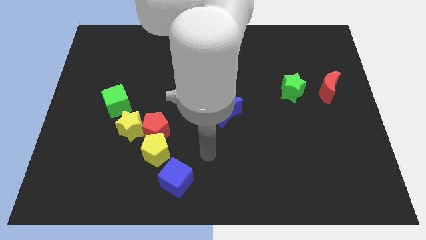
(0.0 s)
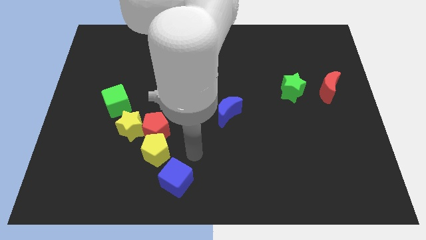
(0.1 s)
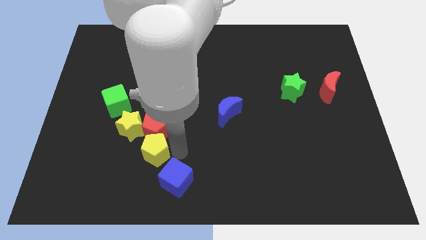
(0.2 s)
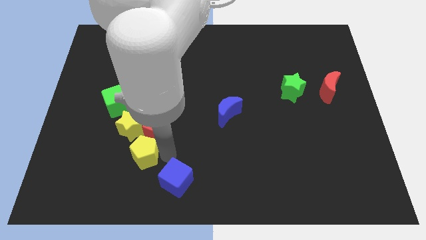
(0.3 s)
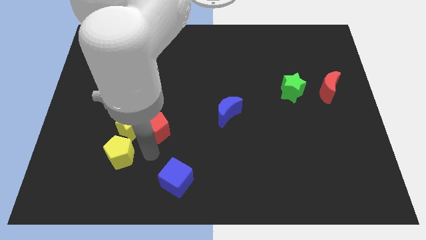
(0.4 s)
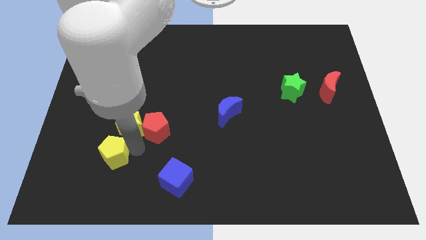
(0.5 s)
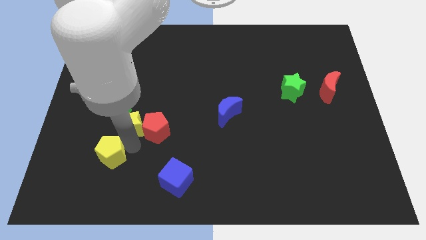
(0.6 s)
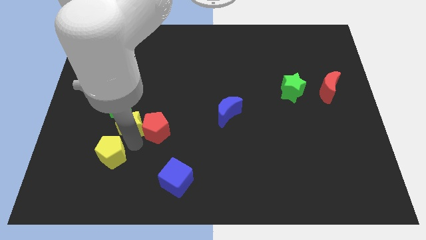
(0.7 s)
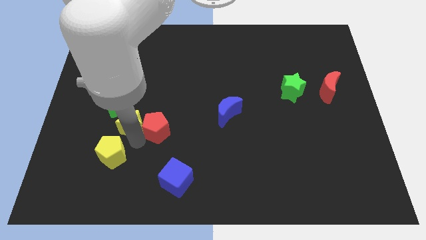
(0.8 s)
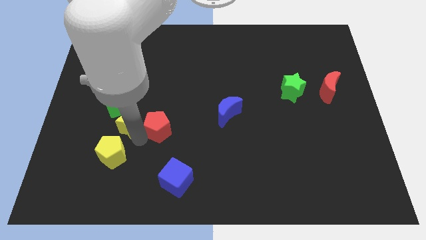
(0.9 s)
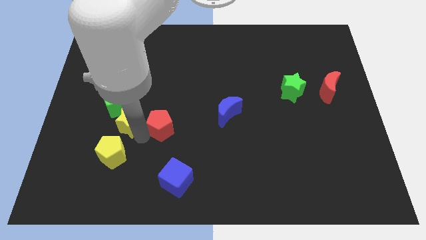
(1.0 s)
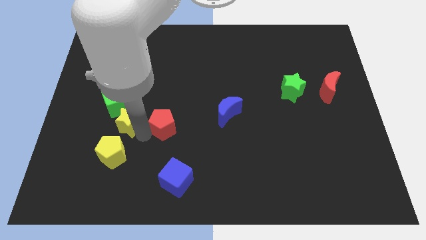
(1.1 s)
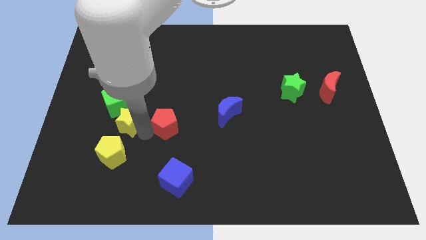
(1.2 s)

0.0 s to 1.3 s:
separate the red pentagon from the yellow pentagon and yellow star

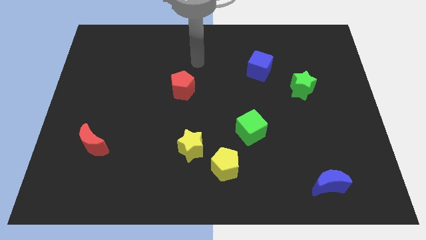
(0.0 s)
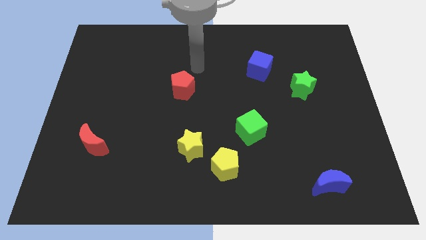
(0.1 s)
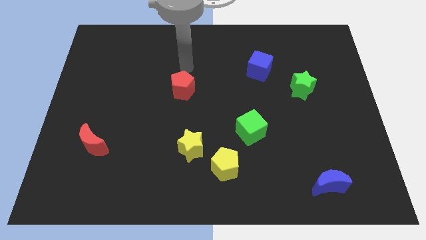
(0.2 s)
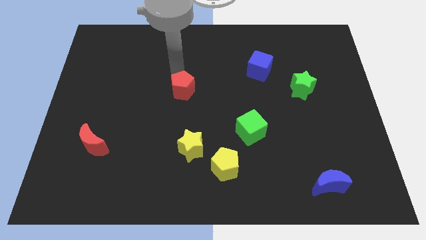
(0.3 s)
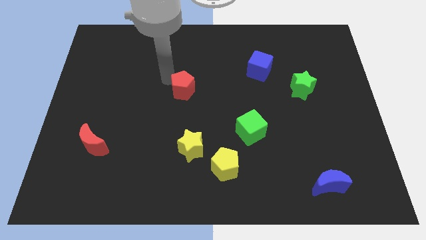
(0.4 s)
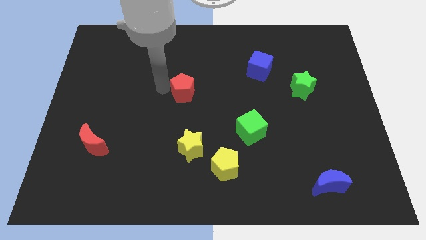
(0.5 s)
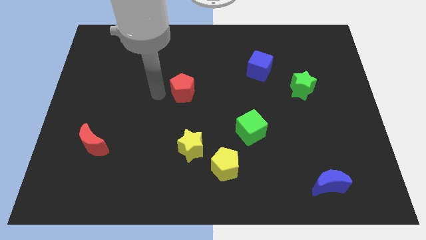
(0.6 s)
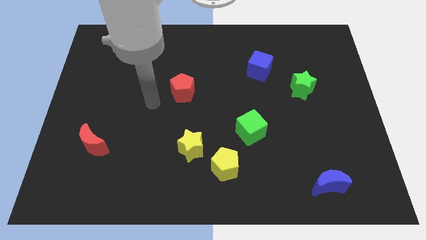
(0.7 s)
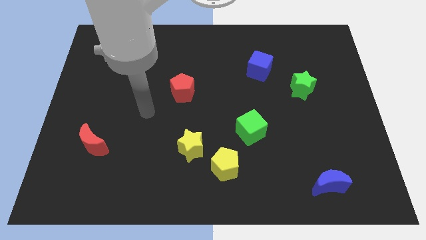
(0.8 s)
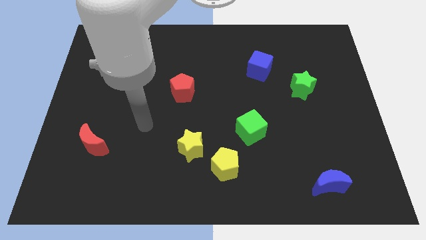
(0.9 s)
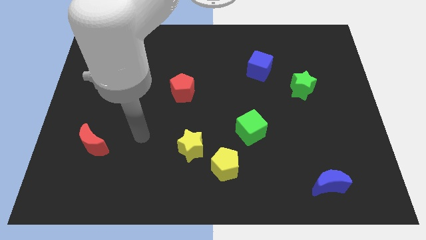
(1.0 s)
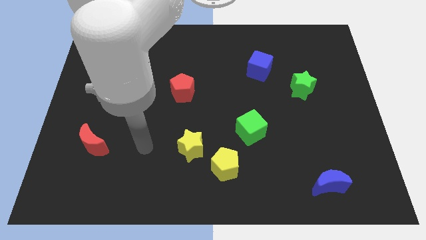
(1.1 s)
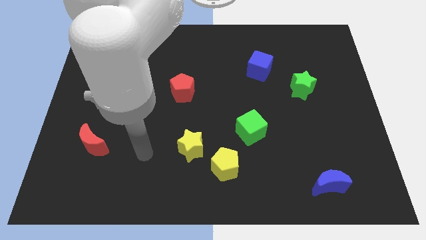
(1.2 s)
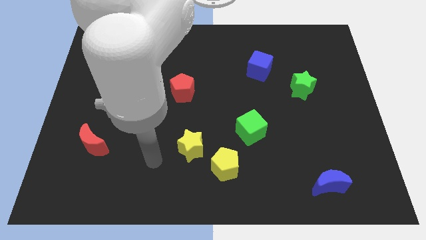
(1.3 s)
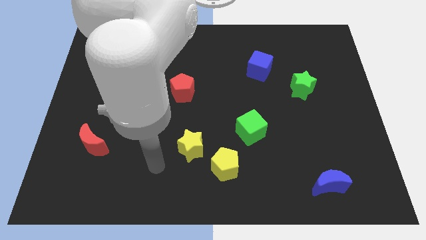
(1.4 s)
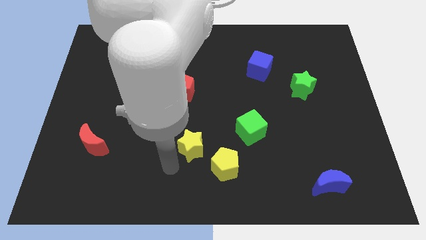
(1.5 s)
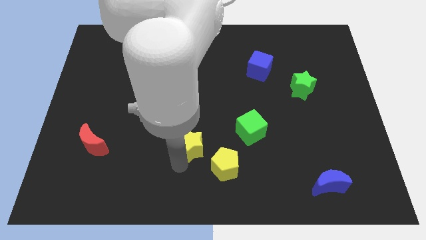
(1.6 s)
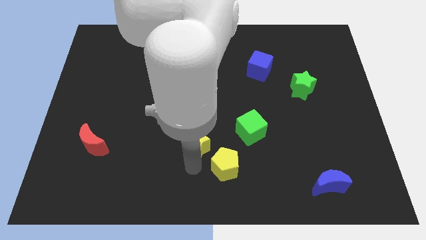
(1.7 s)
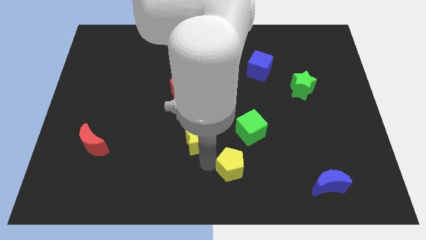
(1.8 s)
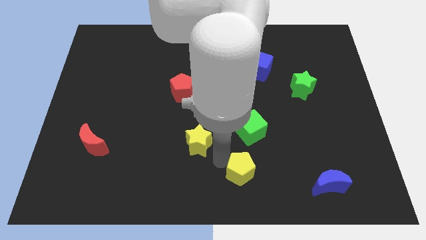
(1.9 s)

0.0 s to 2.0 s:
move the yellow star away from the yellow pentagon

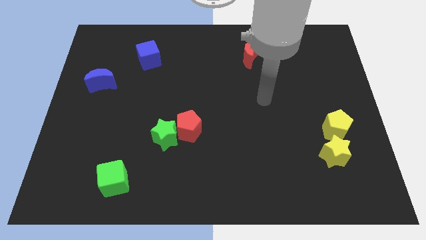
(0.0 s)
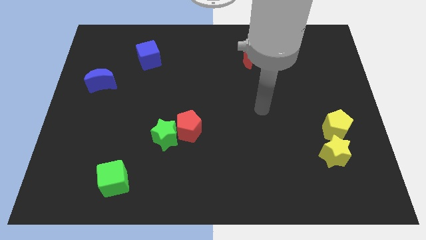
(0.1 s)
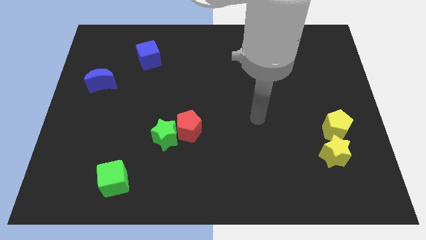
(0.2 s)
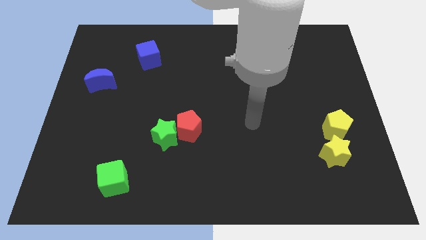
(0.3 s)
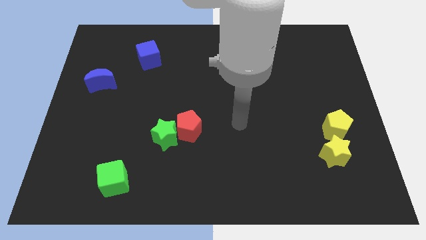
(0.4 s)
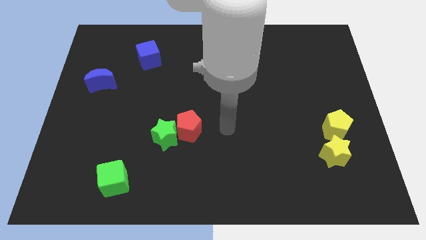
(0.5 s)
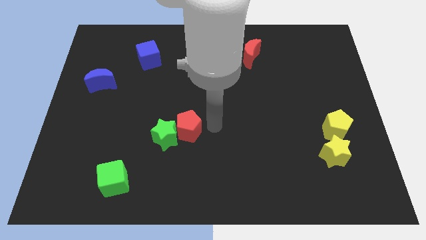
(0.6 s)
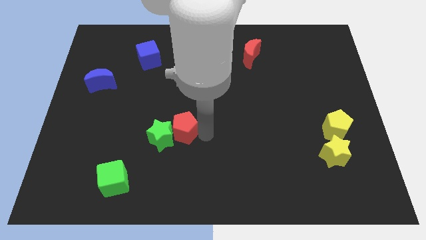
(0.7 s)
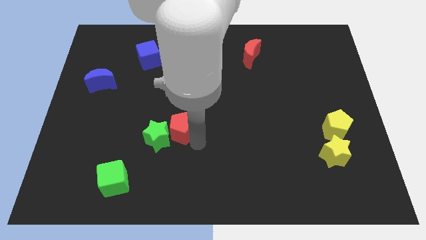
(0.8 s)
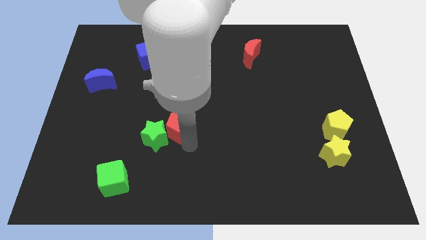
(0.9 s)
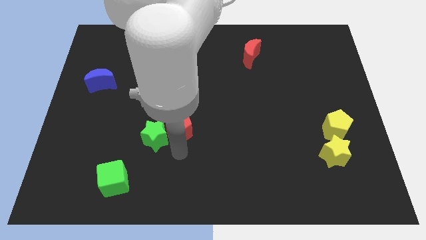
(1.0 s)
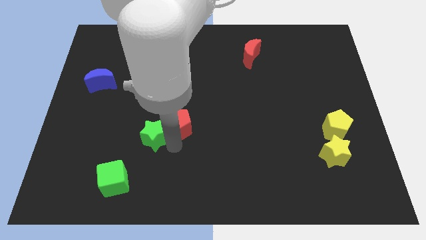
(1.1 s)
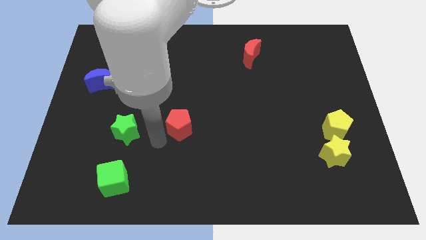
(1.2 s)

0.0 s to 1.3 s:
move the red pentagon away from the green star

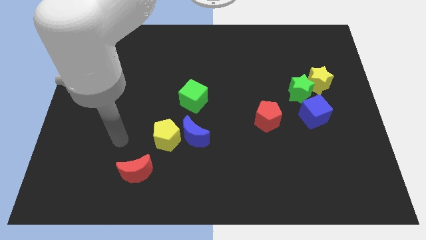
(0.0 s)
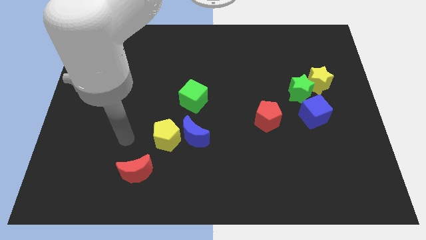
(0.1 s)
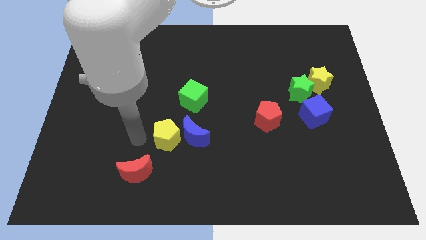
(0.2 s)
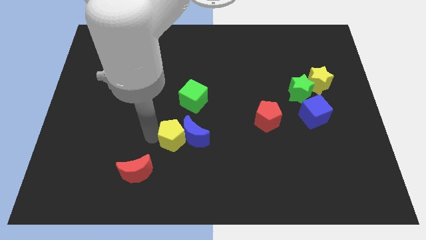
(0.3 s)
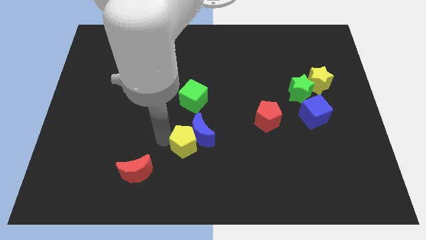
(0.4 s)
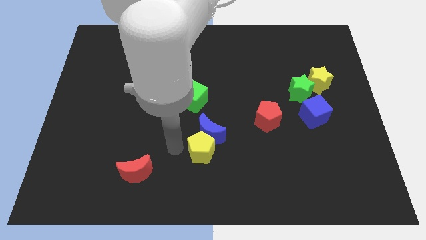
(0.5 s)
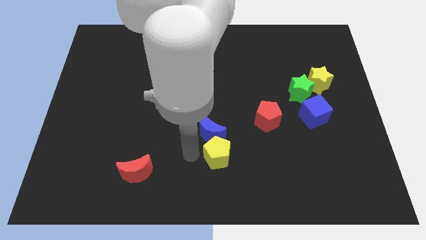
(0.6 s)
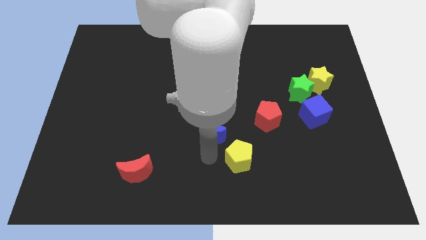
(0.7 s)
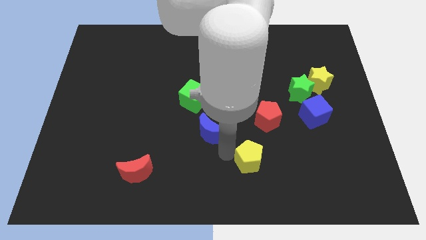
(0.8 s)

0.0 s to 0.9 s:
pull the blue moon apart from the yellow pentagon

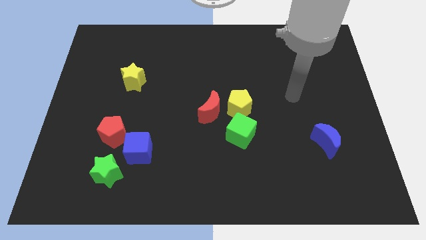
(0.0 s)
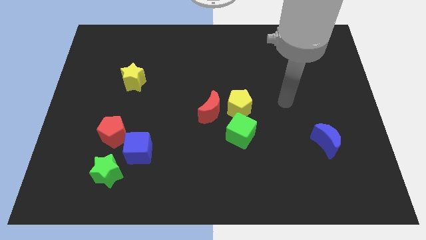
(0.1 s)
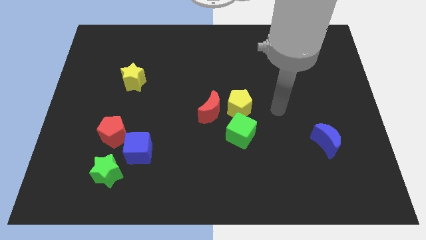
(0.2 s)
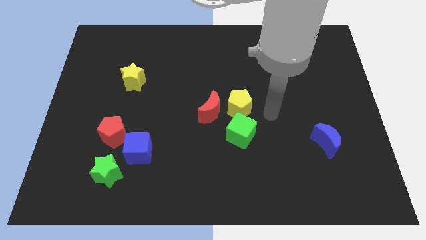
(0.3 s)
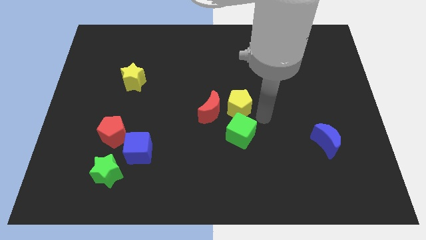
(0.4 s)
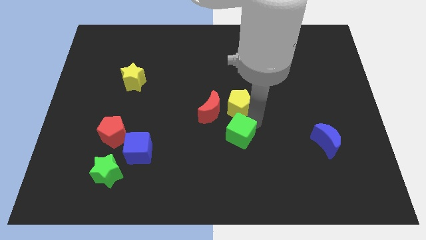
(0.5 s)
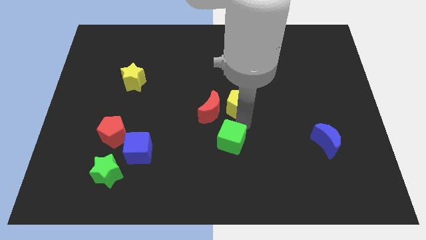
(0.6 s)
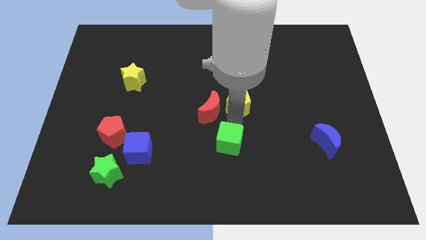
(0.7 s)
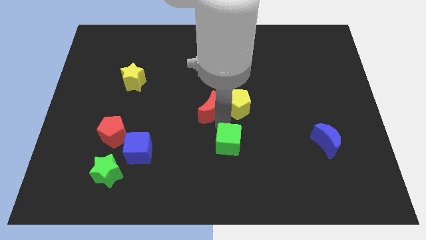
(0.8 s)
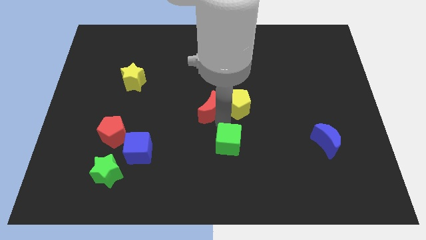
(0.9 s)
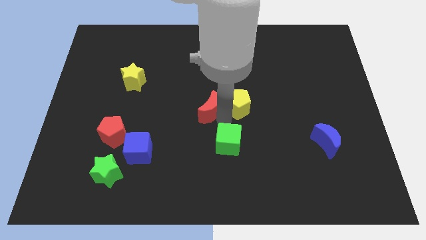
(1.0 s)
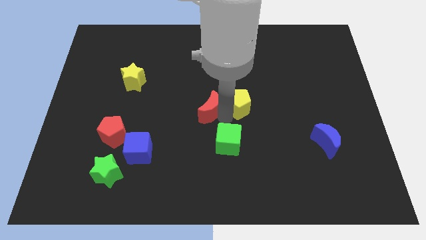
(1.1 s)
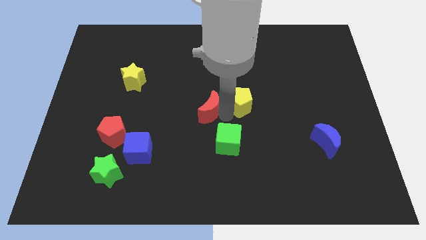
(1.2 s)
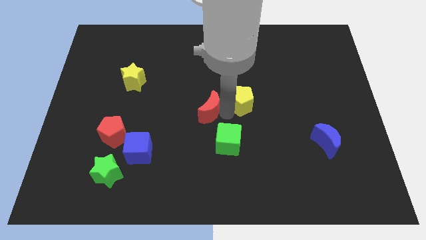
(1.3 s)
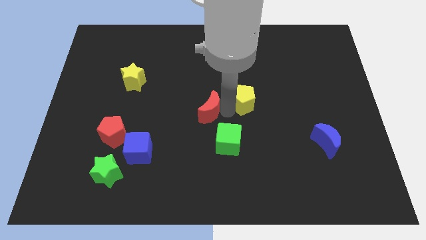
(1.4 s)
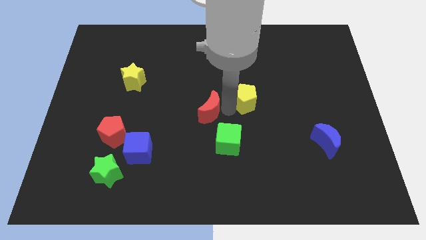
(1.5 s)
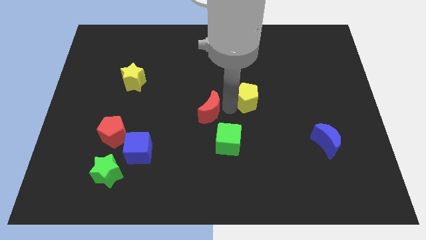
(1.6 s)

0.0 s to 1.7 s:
pull the yellow pentagon apart from the red moon and green cube

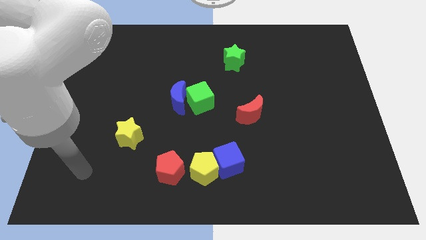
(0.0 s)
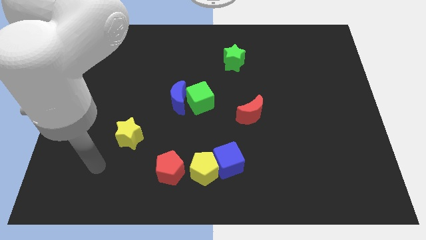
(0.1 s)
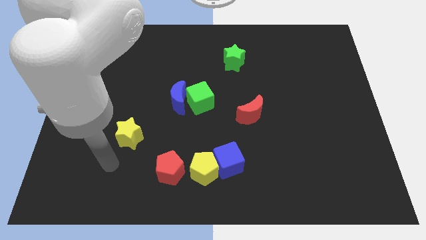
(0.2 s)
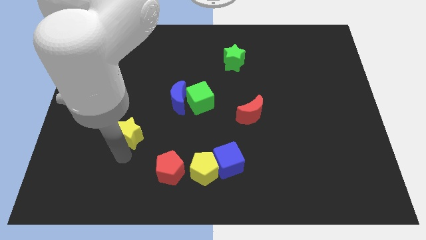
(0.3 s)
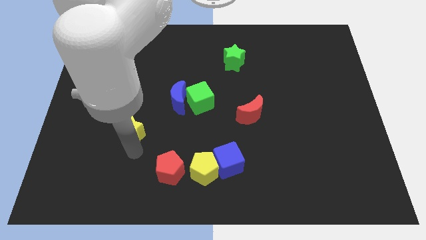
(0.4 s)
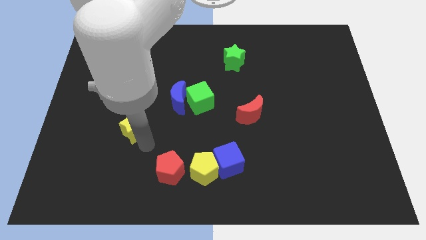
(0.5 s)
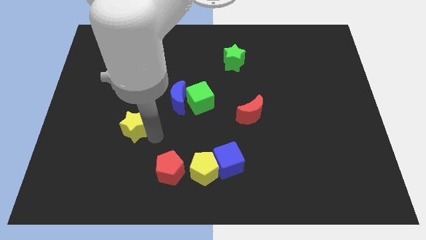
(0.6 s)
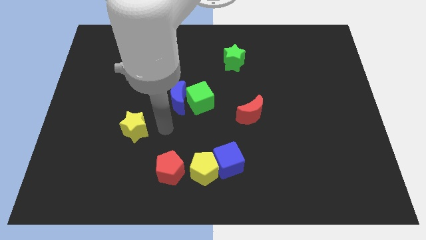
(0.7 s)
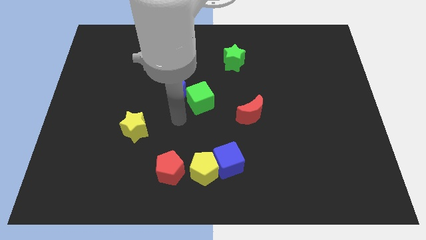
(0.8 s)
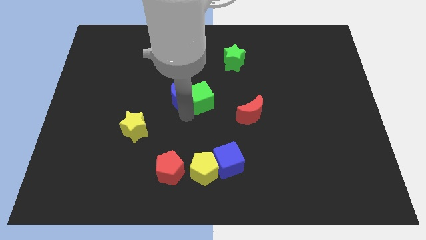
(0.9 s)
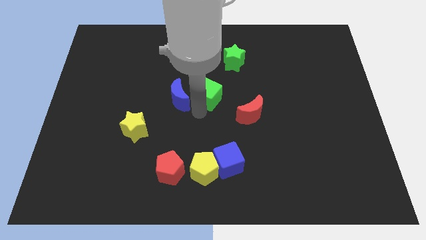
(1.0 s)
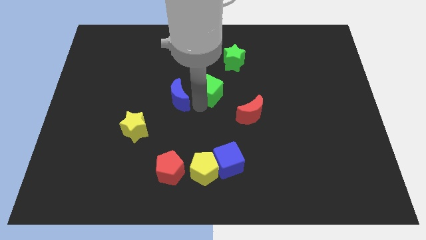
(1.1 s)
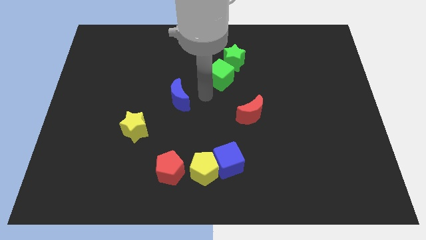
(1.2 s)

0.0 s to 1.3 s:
separate the blue moon from the green cube

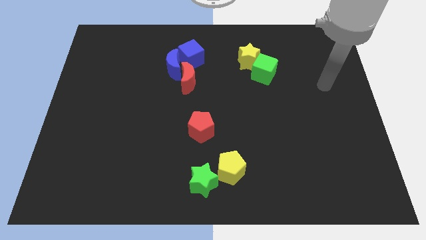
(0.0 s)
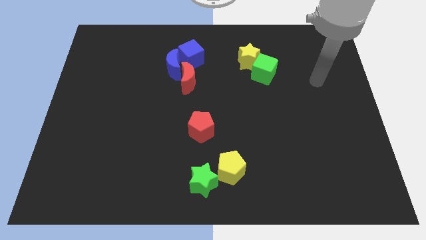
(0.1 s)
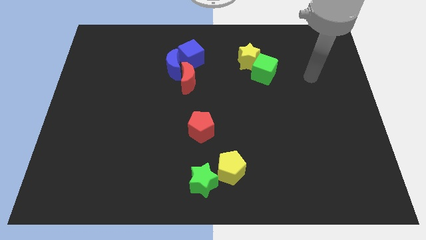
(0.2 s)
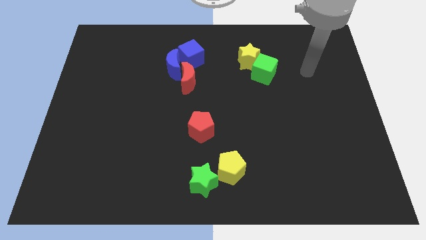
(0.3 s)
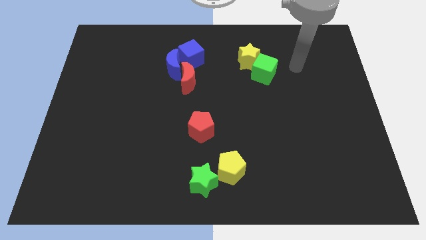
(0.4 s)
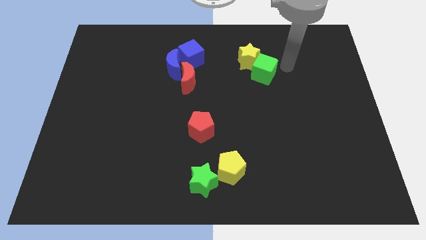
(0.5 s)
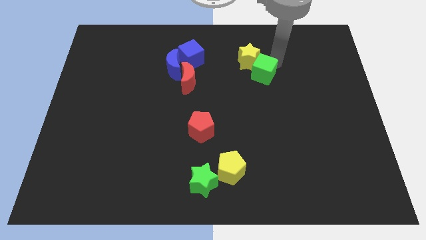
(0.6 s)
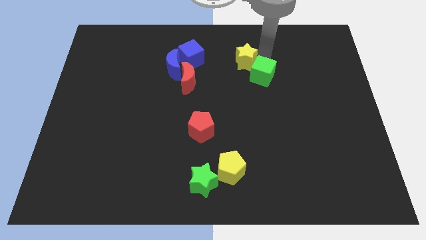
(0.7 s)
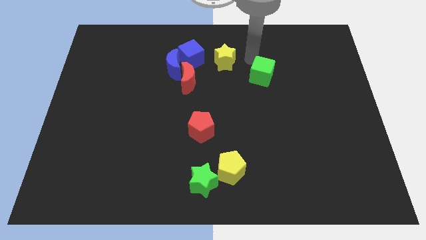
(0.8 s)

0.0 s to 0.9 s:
move the green cube away from the yellow star
